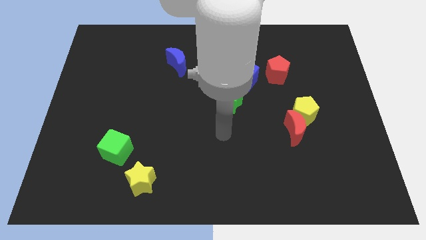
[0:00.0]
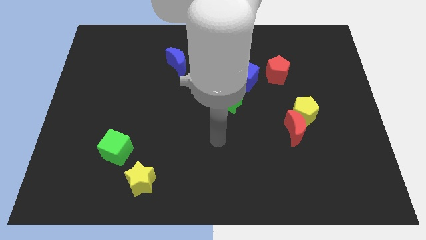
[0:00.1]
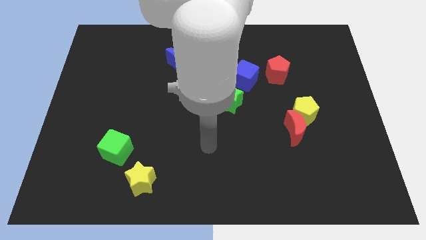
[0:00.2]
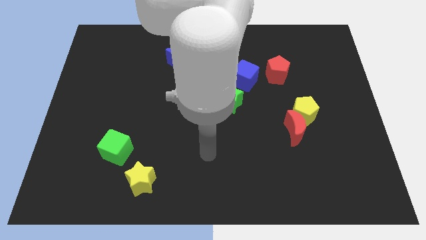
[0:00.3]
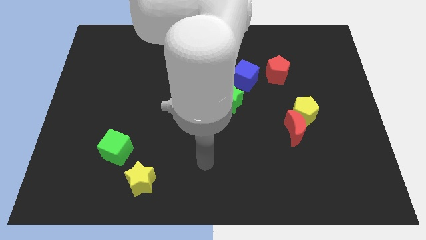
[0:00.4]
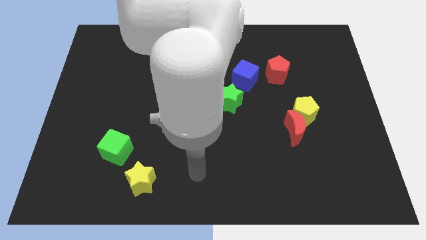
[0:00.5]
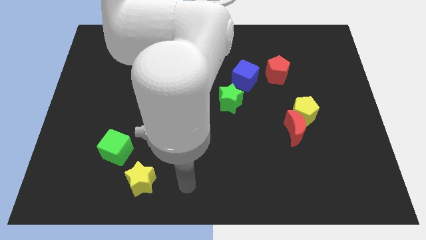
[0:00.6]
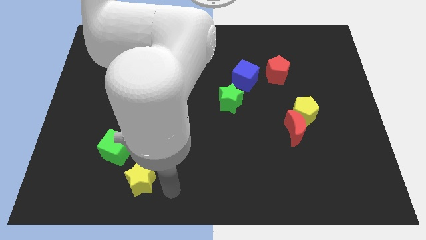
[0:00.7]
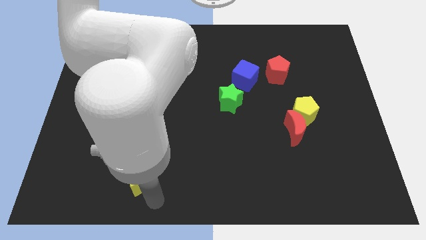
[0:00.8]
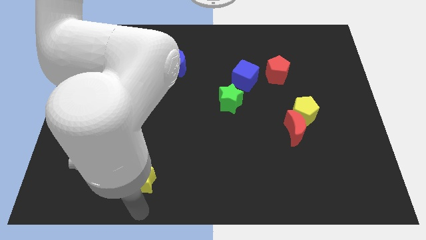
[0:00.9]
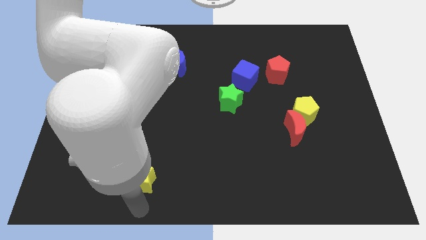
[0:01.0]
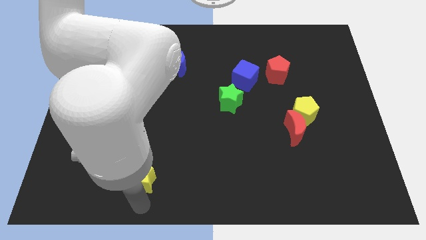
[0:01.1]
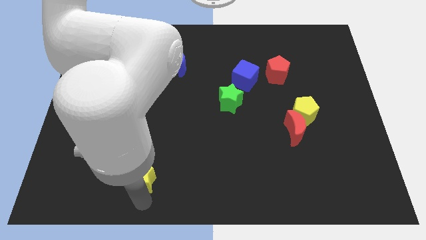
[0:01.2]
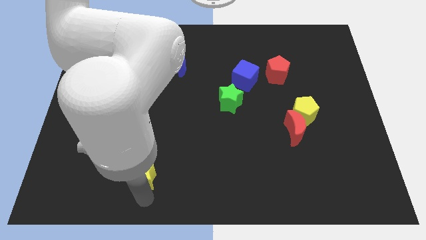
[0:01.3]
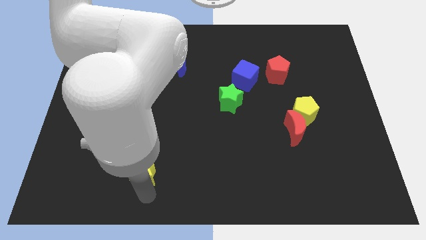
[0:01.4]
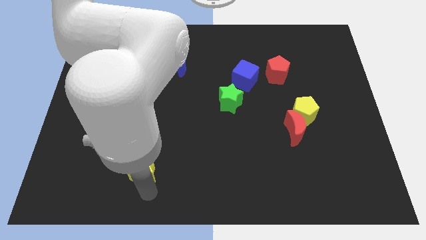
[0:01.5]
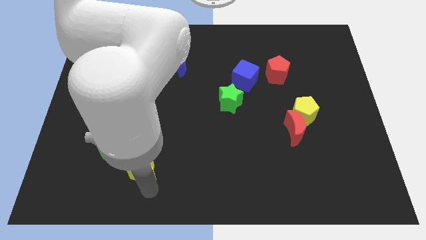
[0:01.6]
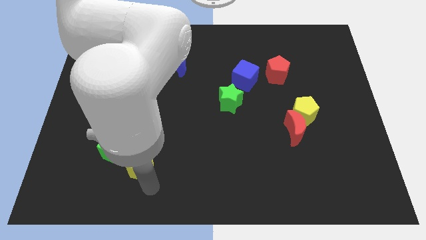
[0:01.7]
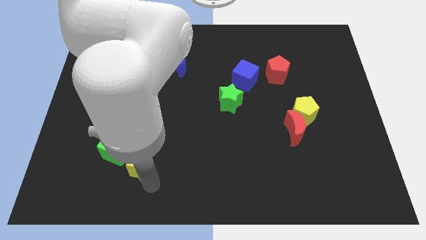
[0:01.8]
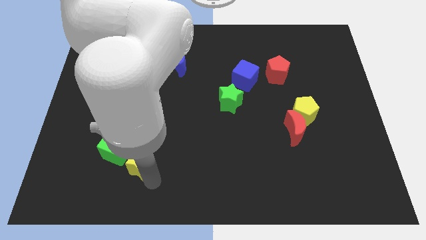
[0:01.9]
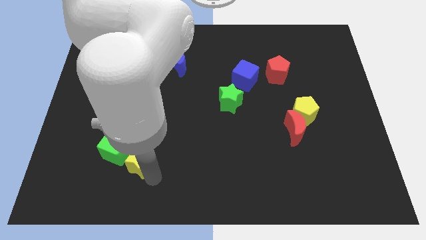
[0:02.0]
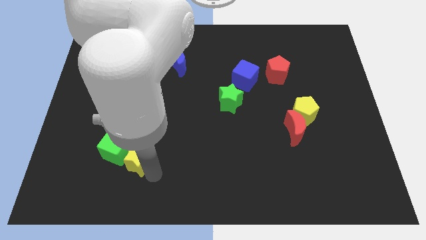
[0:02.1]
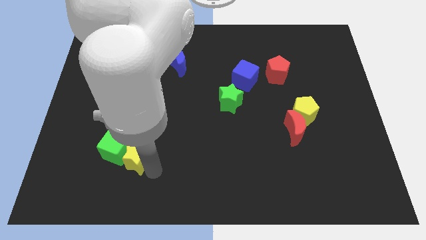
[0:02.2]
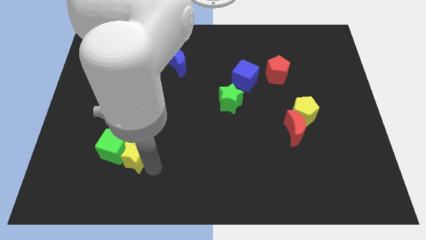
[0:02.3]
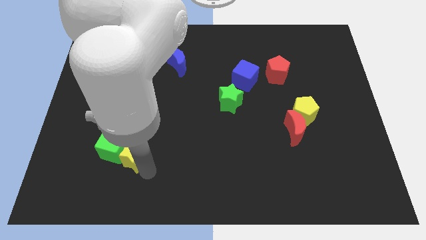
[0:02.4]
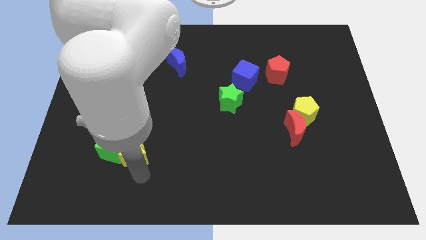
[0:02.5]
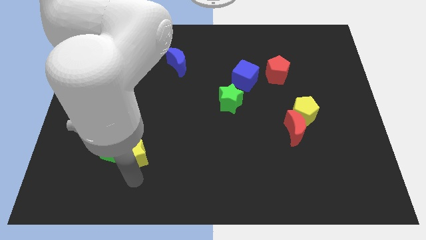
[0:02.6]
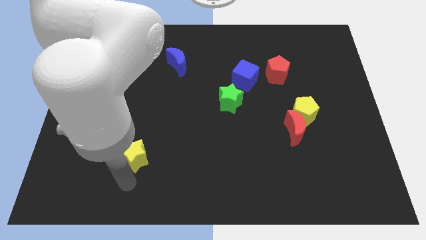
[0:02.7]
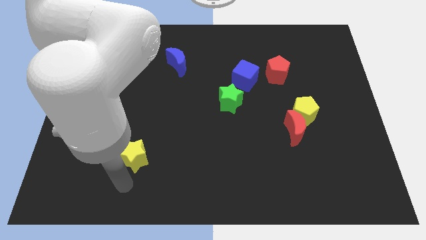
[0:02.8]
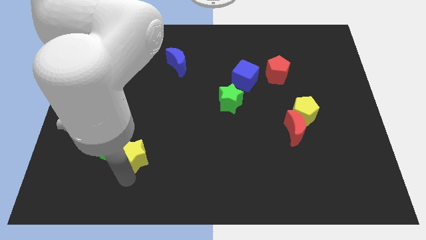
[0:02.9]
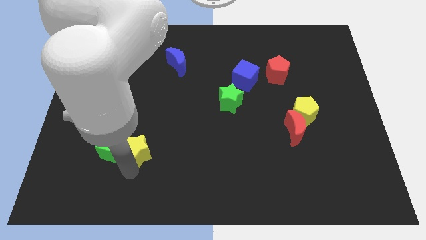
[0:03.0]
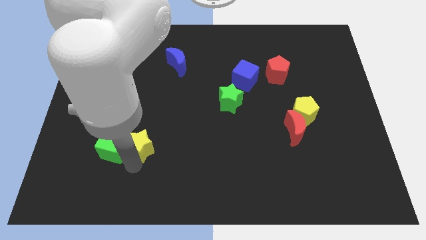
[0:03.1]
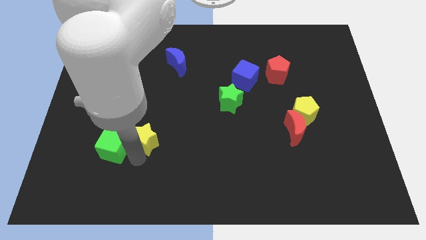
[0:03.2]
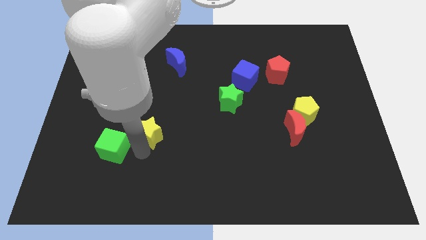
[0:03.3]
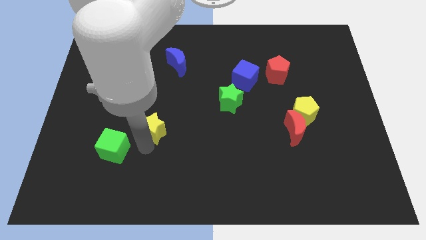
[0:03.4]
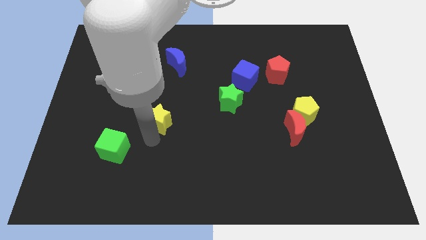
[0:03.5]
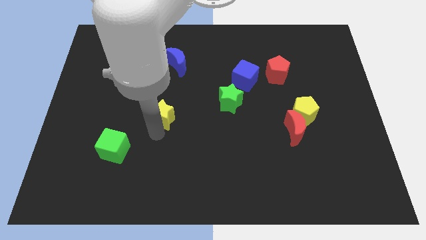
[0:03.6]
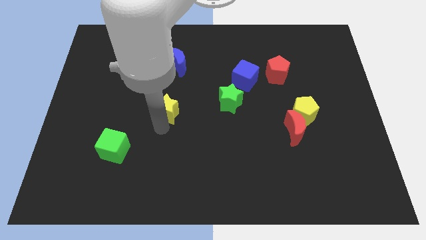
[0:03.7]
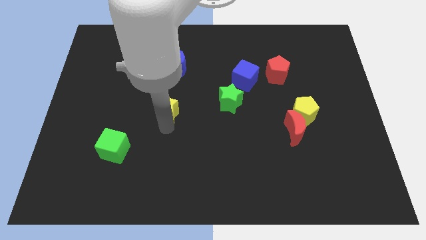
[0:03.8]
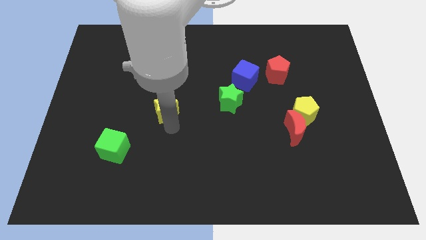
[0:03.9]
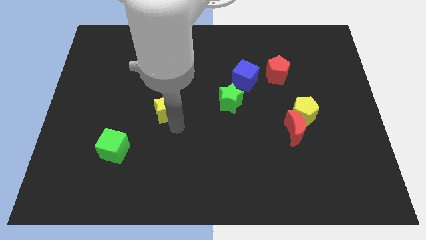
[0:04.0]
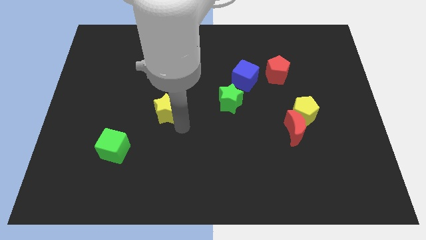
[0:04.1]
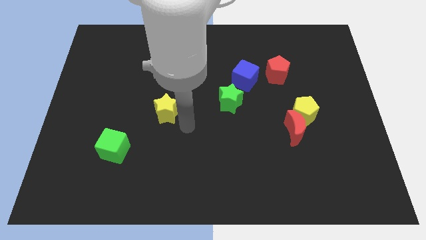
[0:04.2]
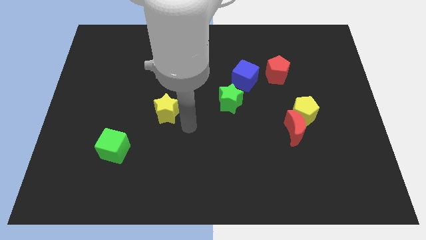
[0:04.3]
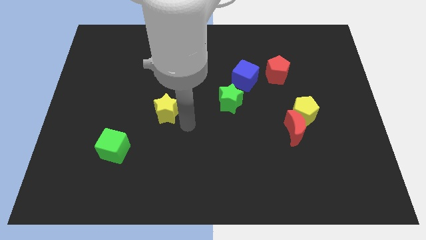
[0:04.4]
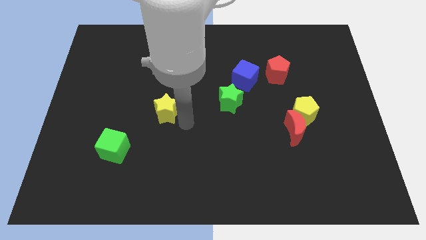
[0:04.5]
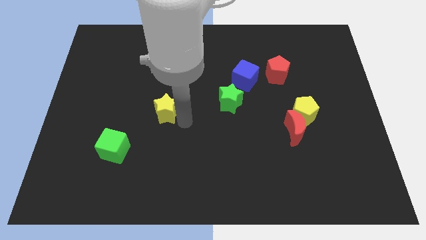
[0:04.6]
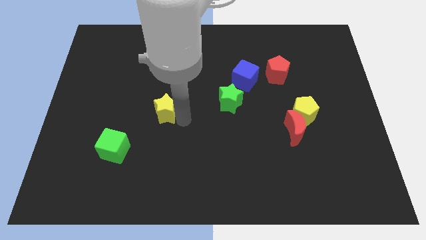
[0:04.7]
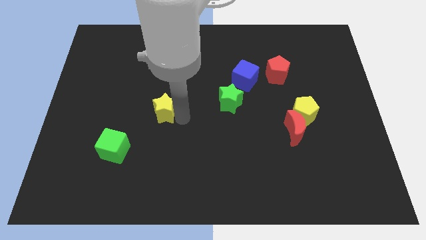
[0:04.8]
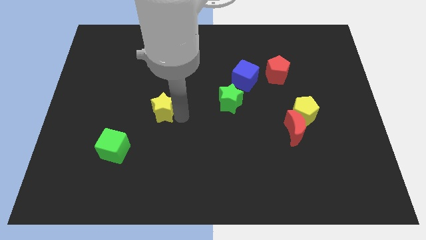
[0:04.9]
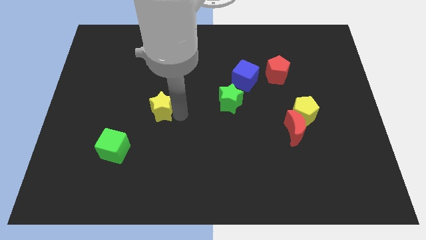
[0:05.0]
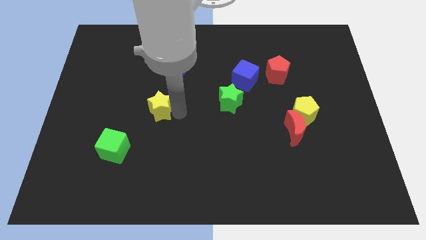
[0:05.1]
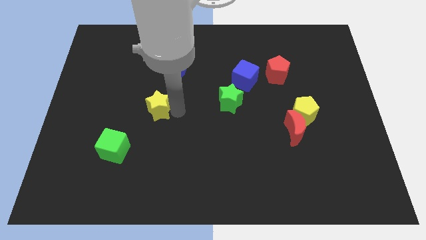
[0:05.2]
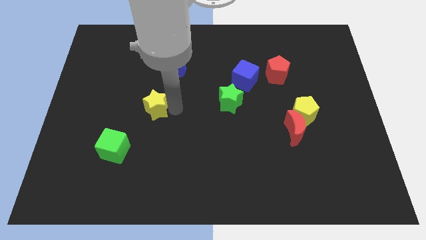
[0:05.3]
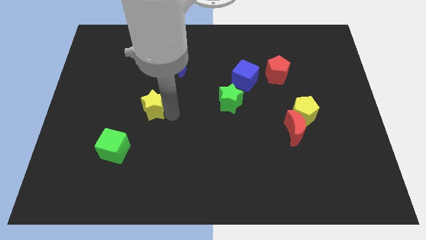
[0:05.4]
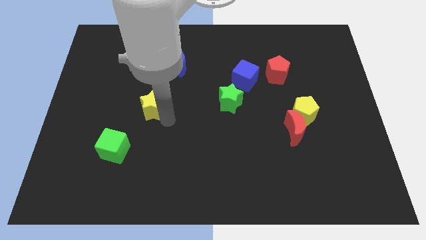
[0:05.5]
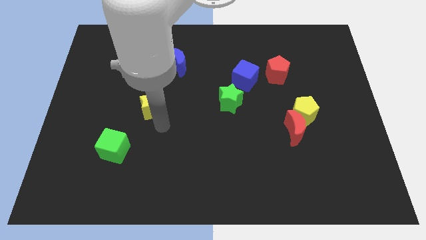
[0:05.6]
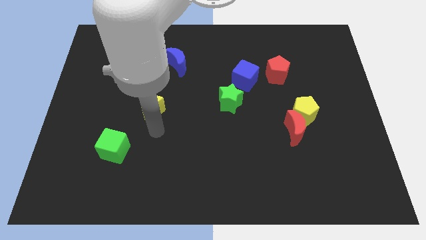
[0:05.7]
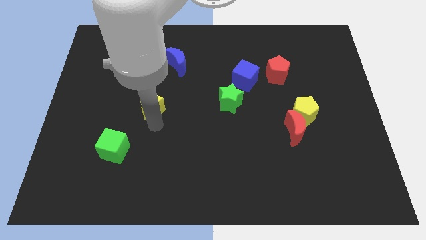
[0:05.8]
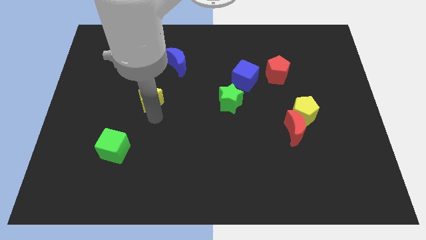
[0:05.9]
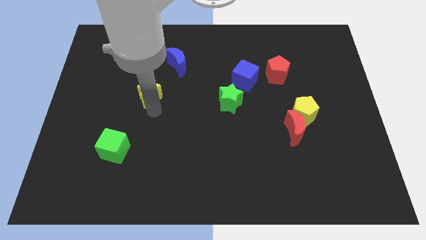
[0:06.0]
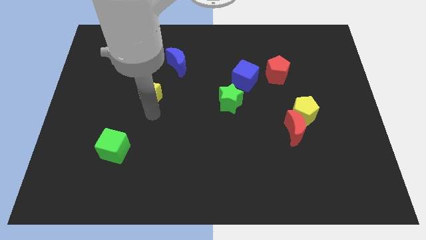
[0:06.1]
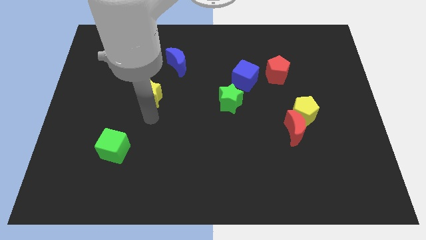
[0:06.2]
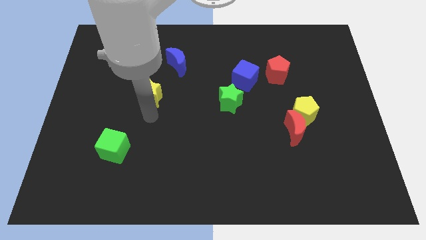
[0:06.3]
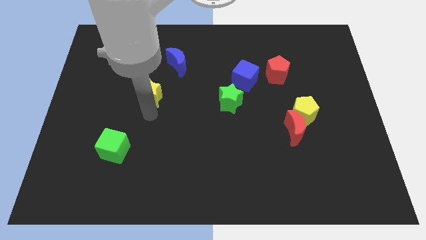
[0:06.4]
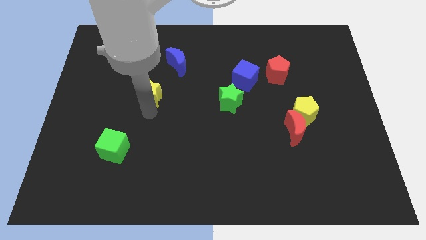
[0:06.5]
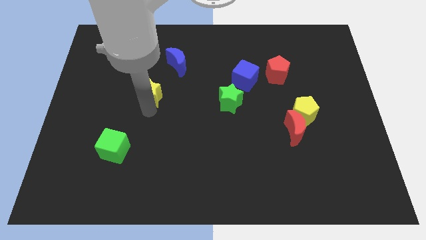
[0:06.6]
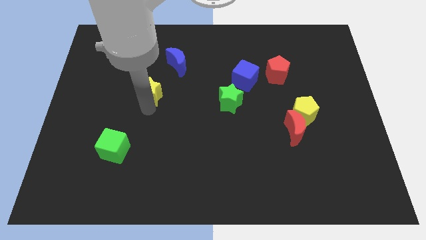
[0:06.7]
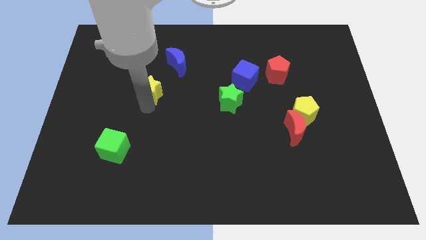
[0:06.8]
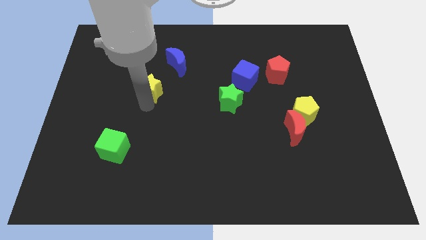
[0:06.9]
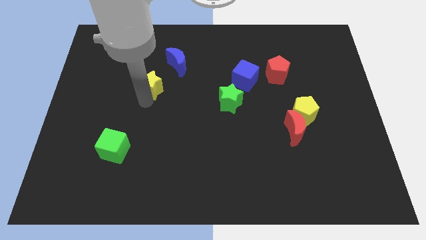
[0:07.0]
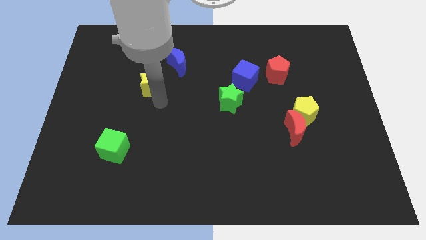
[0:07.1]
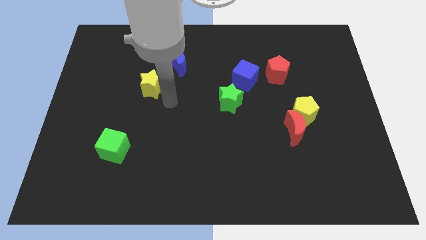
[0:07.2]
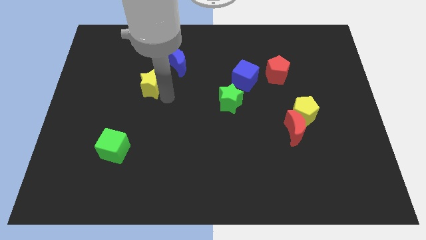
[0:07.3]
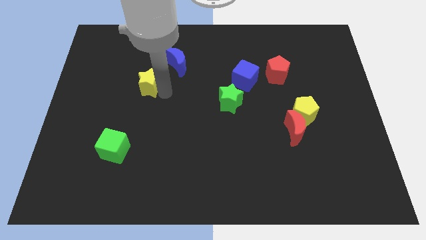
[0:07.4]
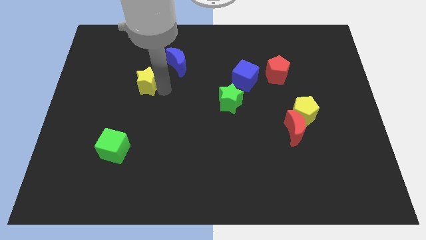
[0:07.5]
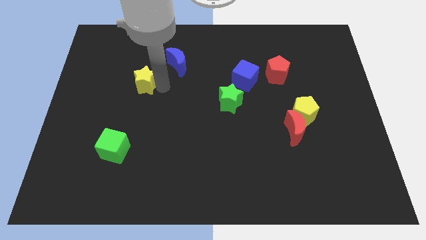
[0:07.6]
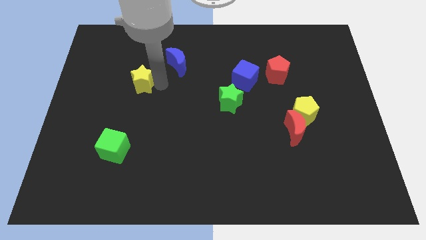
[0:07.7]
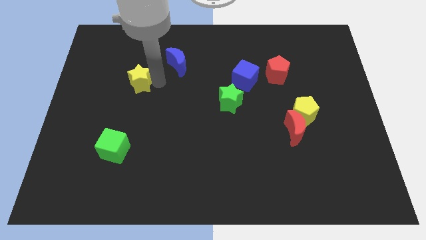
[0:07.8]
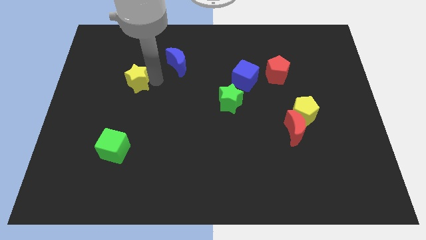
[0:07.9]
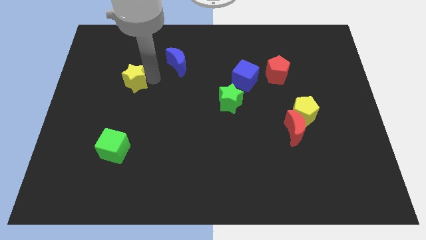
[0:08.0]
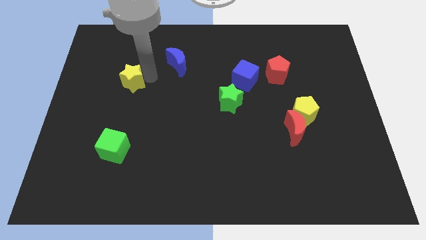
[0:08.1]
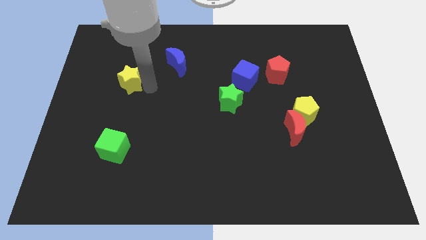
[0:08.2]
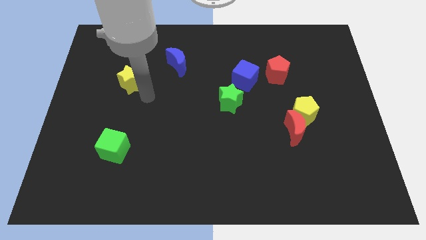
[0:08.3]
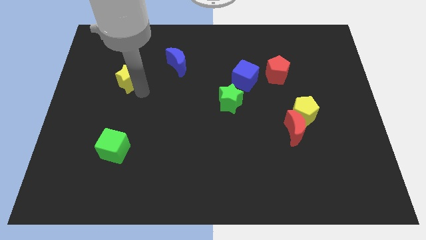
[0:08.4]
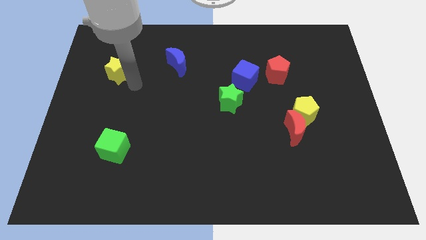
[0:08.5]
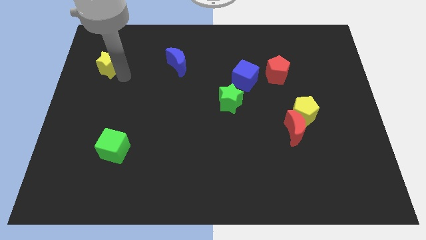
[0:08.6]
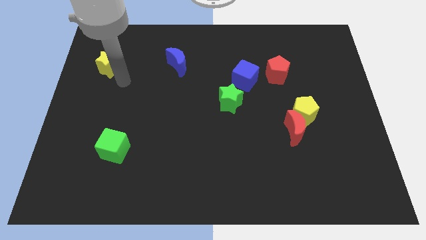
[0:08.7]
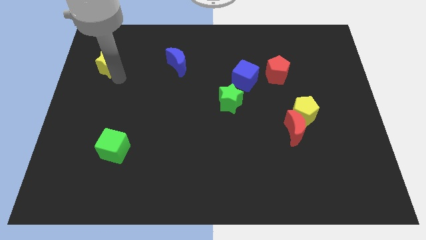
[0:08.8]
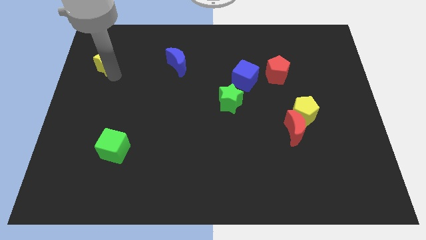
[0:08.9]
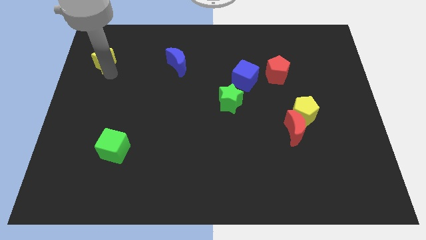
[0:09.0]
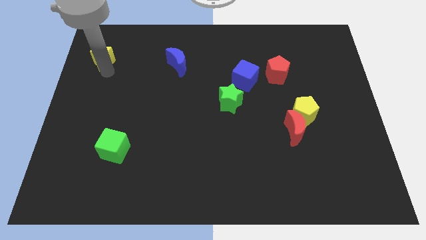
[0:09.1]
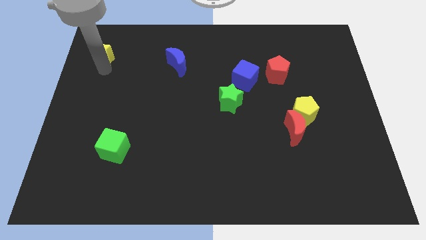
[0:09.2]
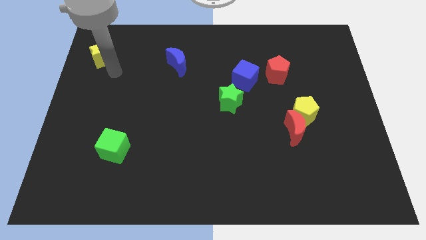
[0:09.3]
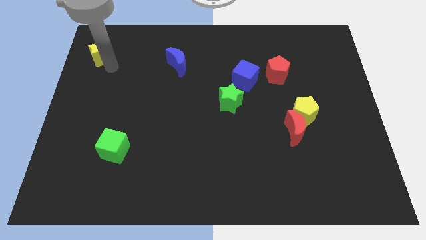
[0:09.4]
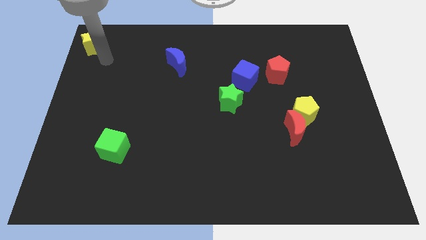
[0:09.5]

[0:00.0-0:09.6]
slide the yellow star to the top left corner
